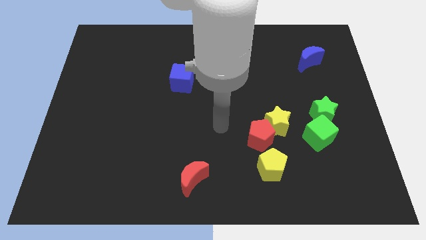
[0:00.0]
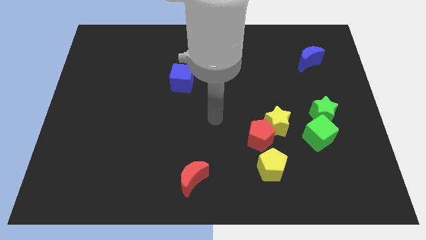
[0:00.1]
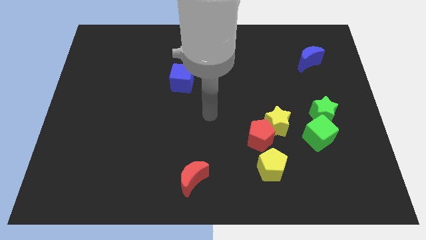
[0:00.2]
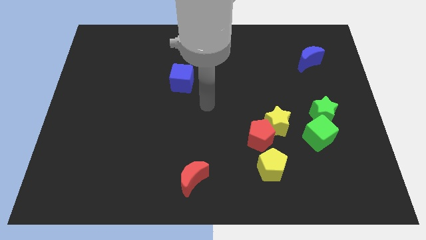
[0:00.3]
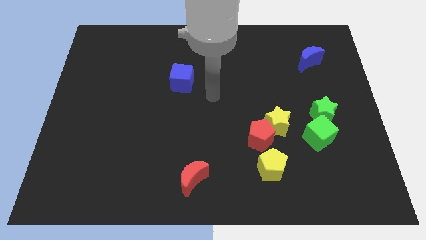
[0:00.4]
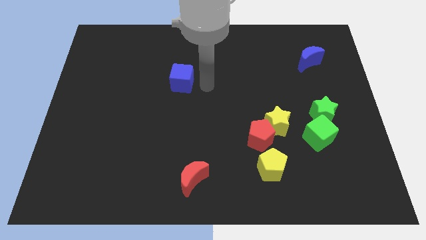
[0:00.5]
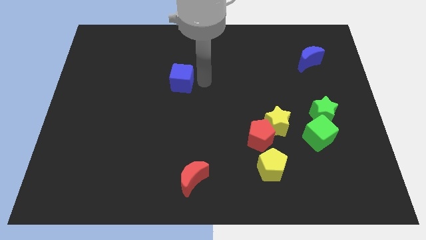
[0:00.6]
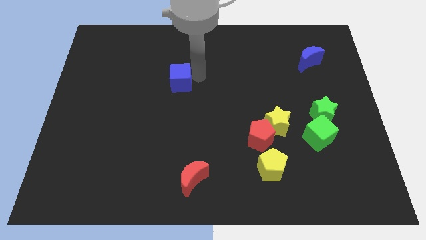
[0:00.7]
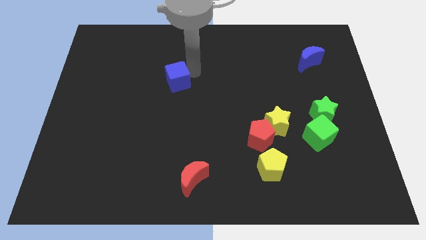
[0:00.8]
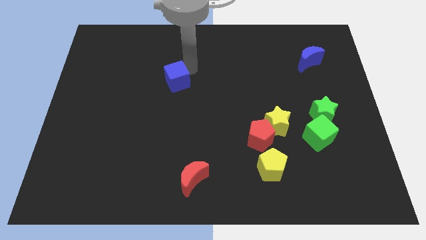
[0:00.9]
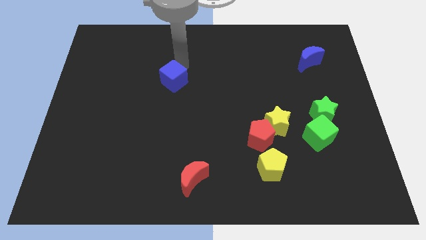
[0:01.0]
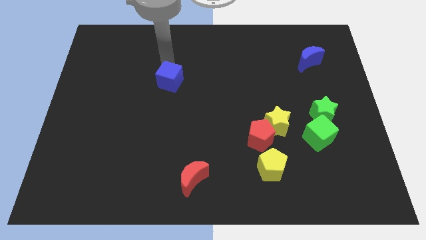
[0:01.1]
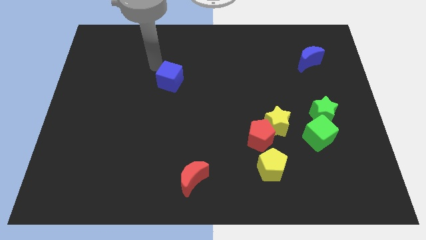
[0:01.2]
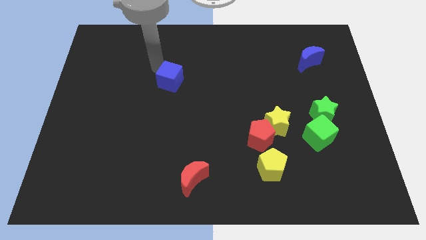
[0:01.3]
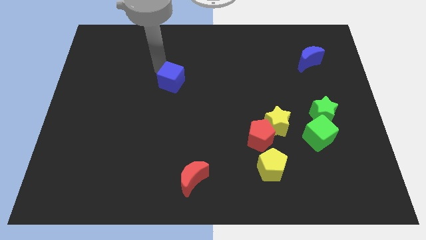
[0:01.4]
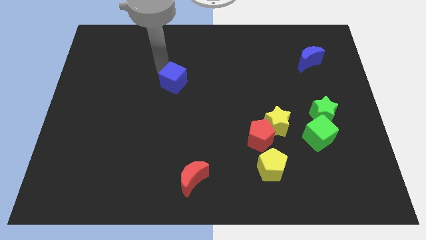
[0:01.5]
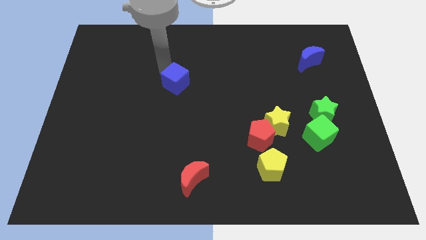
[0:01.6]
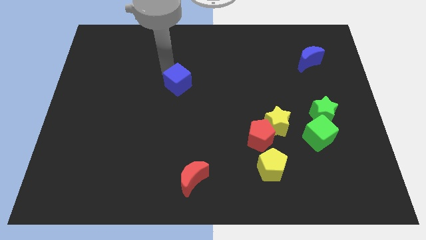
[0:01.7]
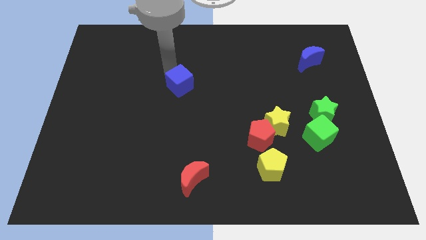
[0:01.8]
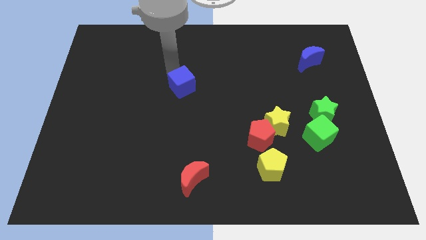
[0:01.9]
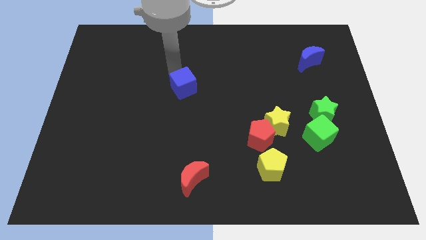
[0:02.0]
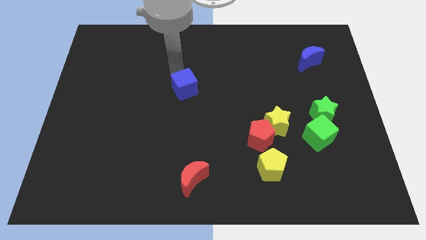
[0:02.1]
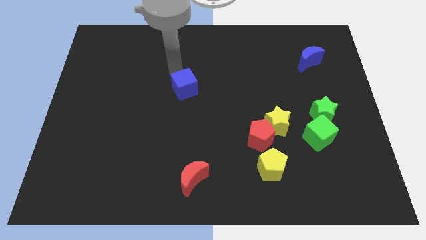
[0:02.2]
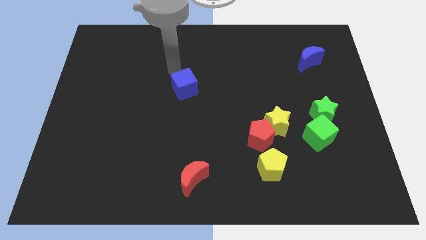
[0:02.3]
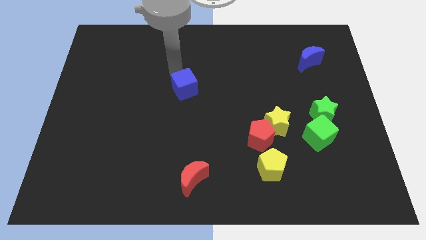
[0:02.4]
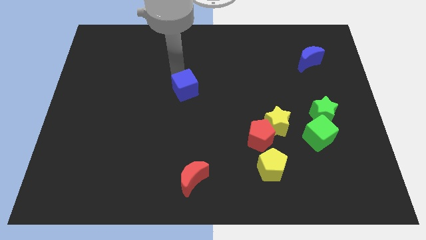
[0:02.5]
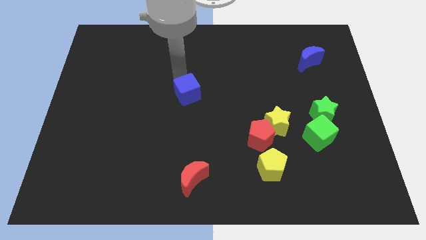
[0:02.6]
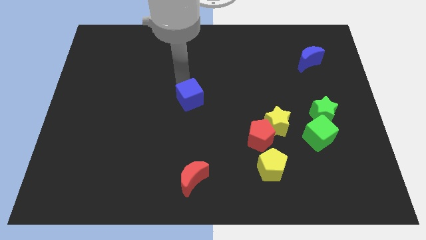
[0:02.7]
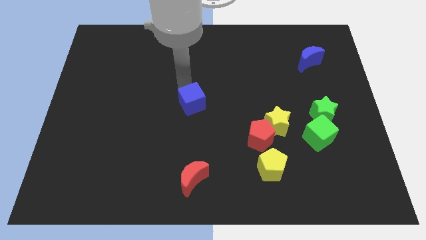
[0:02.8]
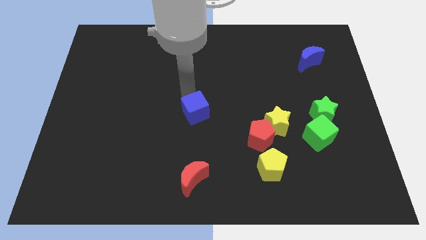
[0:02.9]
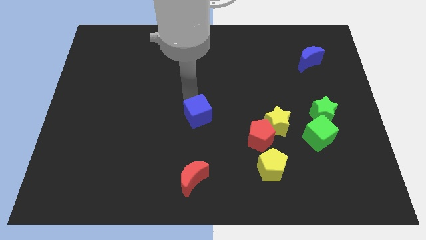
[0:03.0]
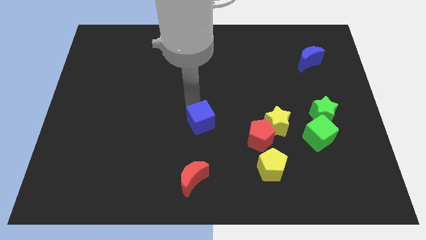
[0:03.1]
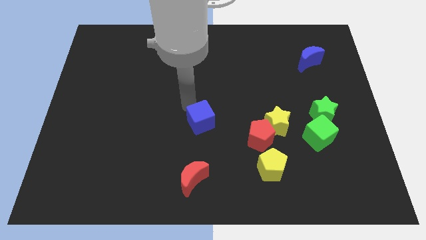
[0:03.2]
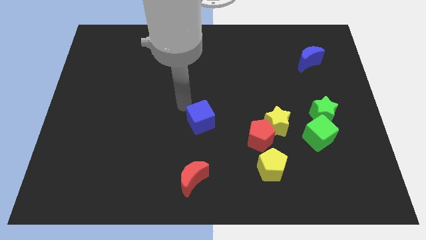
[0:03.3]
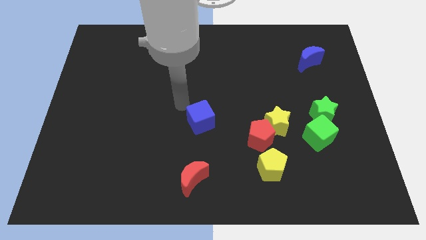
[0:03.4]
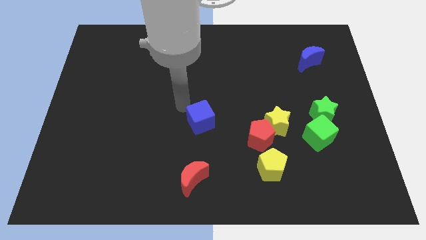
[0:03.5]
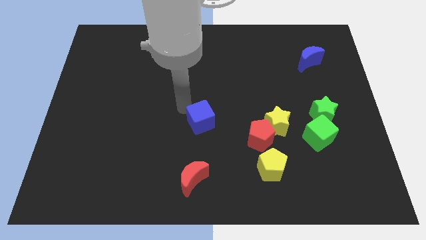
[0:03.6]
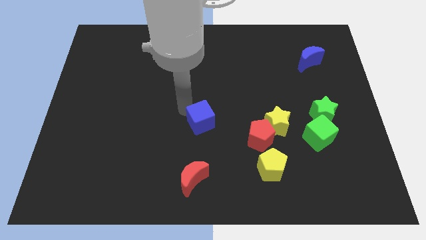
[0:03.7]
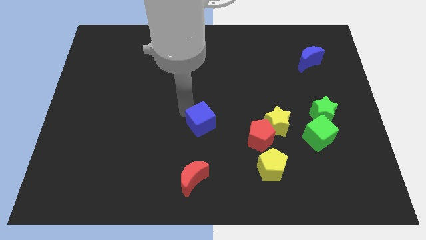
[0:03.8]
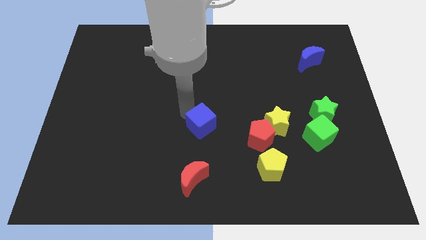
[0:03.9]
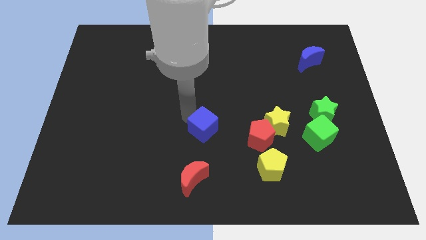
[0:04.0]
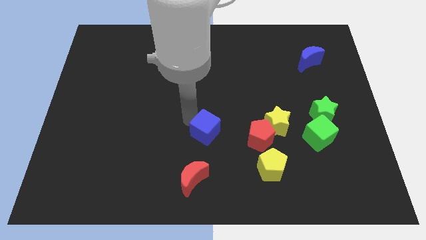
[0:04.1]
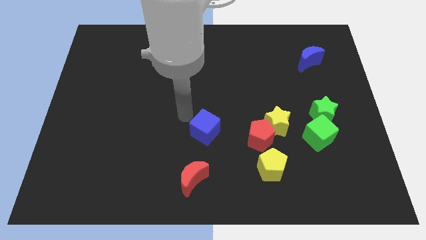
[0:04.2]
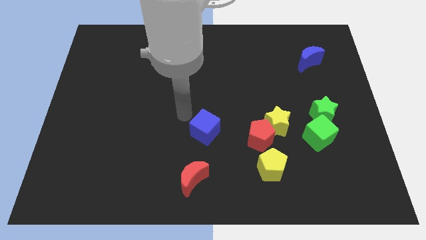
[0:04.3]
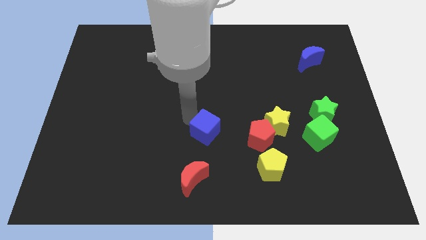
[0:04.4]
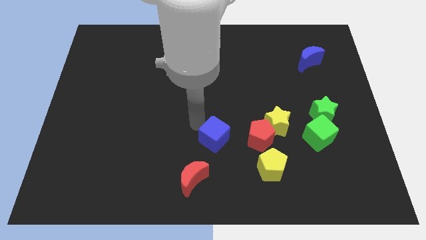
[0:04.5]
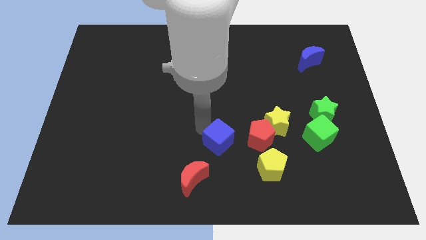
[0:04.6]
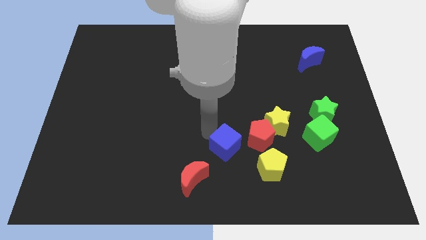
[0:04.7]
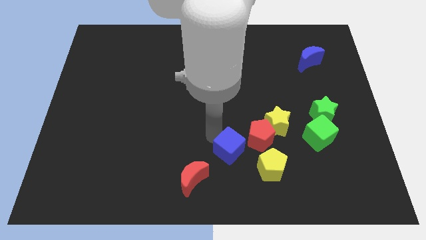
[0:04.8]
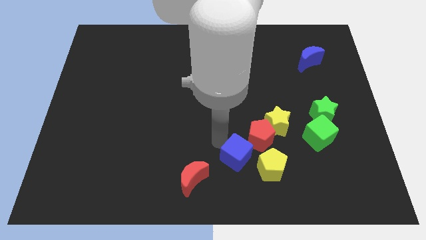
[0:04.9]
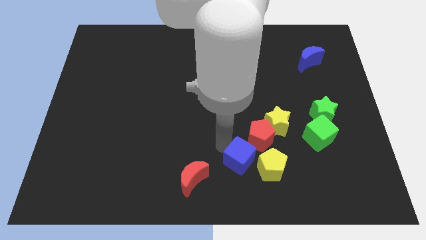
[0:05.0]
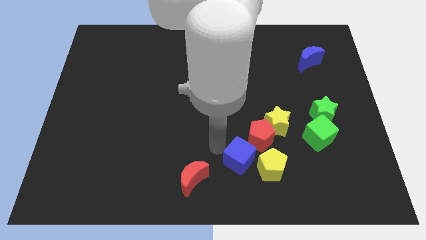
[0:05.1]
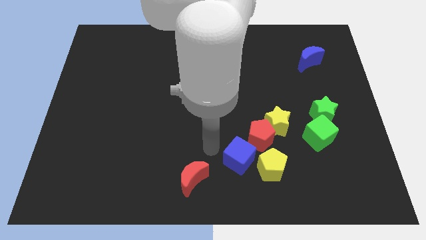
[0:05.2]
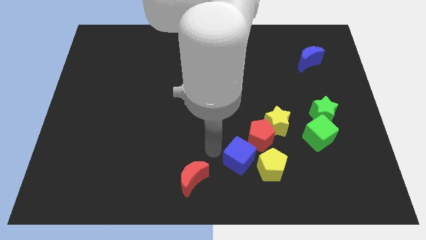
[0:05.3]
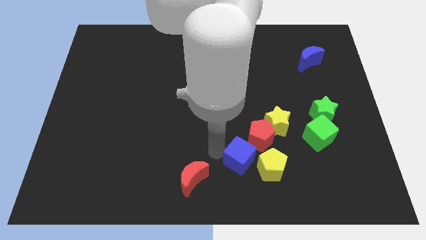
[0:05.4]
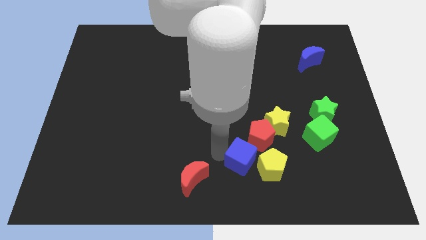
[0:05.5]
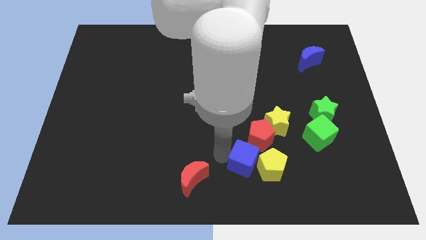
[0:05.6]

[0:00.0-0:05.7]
push the blue cube next to the yellow pentagon

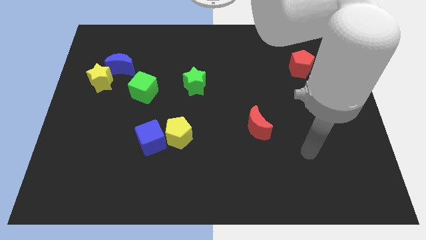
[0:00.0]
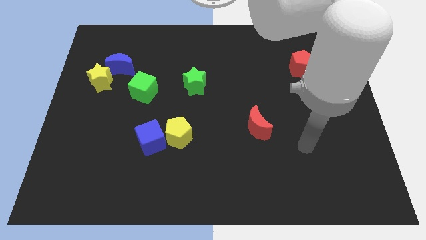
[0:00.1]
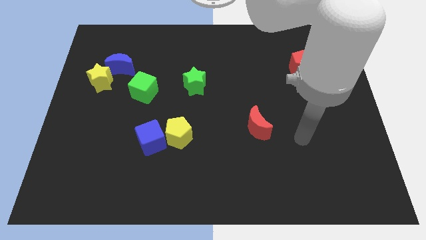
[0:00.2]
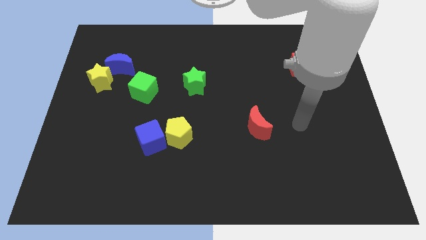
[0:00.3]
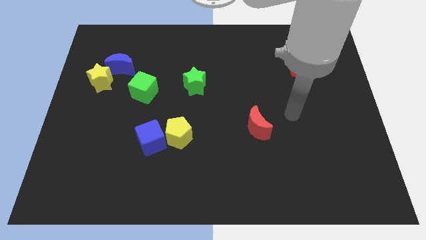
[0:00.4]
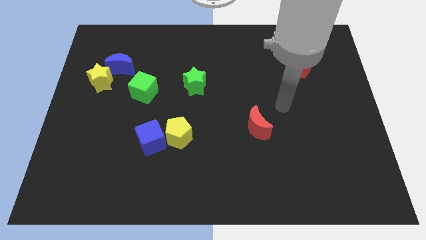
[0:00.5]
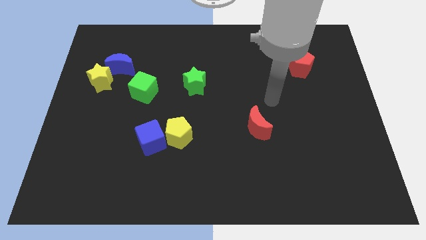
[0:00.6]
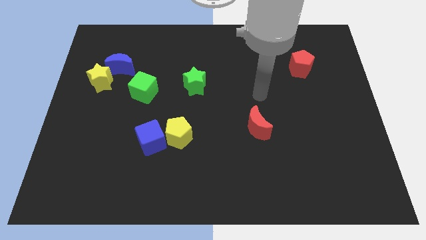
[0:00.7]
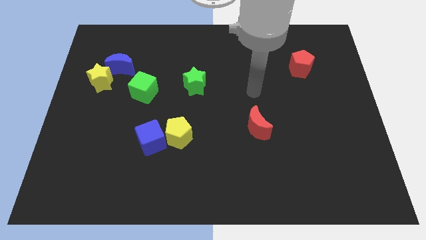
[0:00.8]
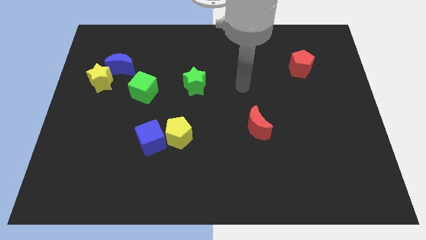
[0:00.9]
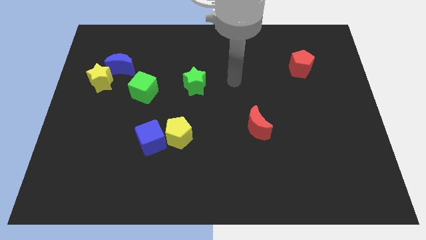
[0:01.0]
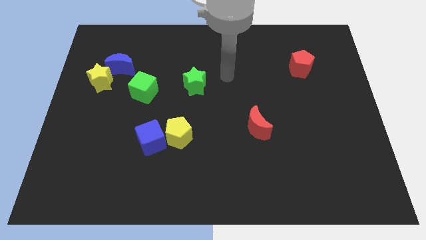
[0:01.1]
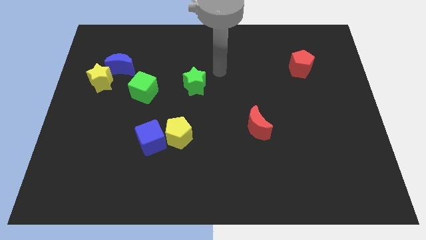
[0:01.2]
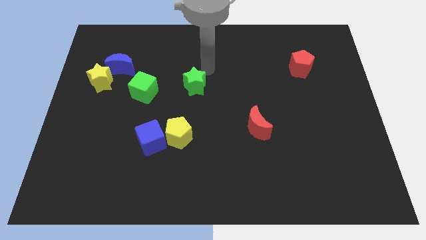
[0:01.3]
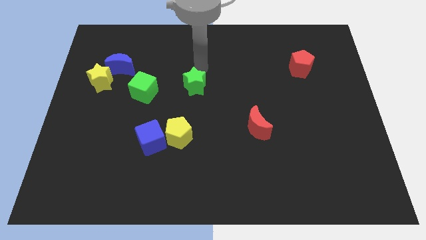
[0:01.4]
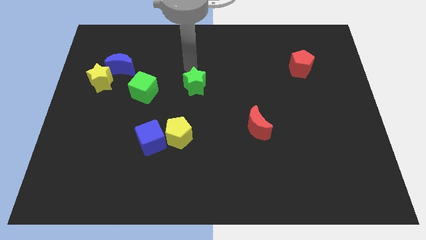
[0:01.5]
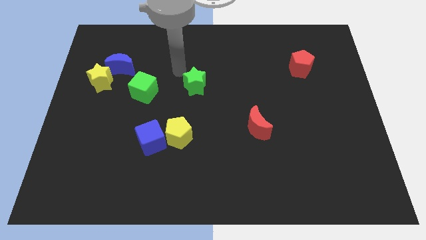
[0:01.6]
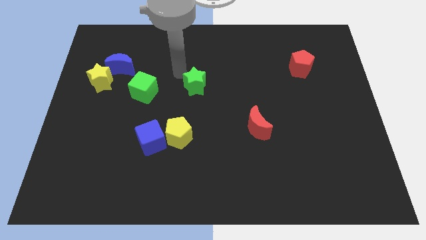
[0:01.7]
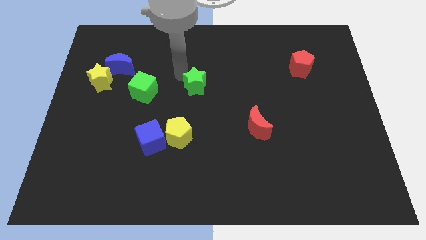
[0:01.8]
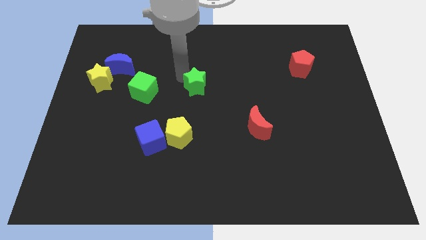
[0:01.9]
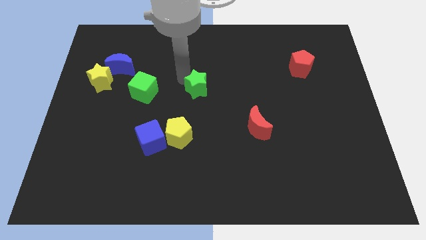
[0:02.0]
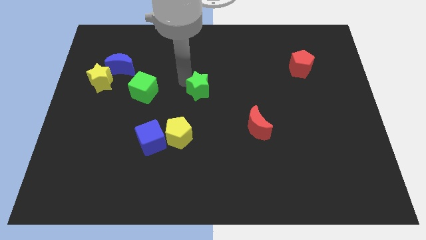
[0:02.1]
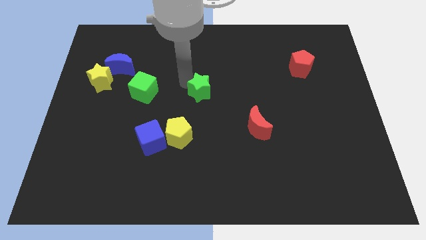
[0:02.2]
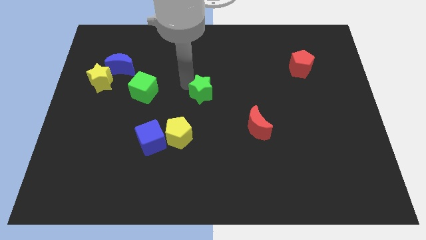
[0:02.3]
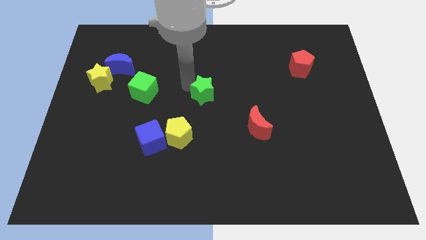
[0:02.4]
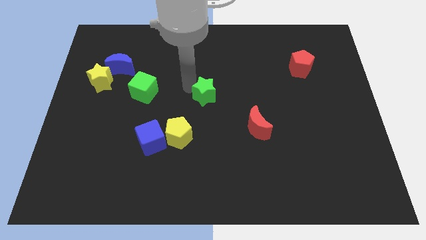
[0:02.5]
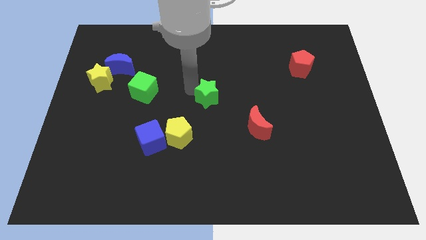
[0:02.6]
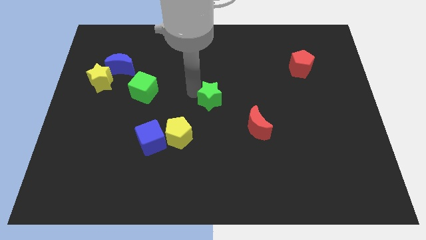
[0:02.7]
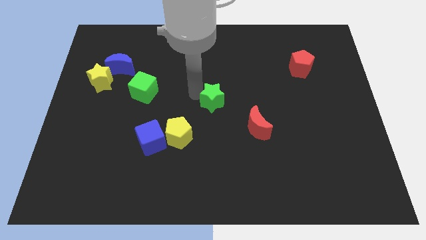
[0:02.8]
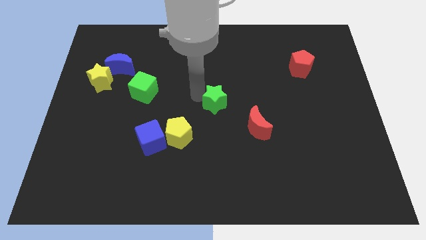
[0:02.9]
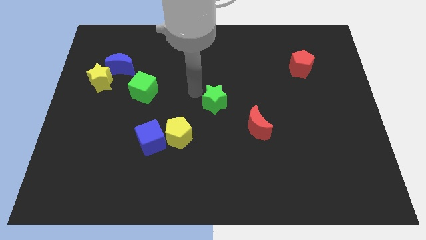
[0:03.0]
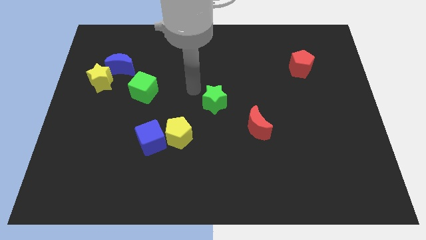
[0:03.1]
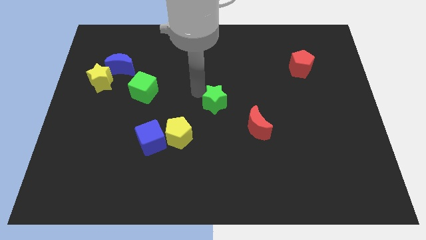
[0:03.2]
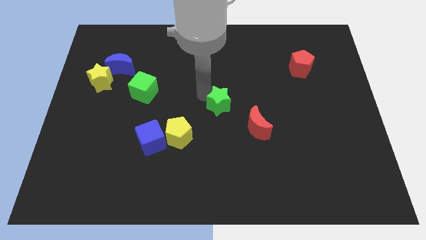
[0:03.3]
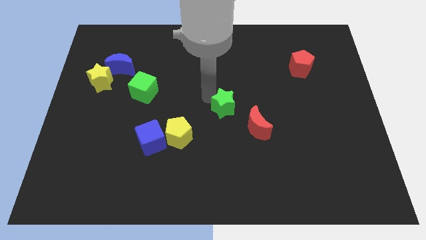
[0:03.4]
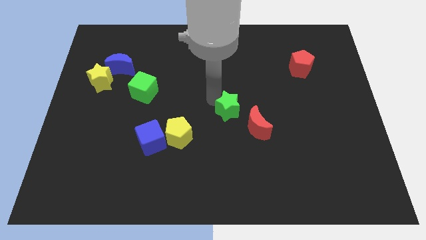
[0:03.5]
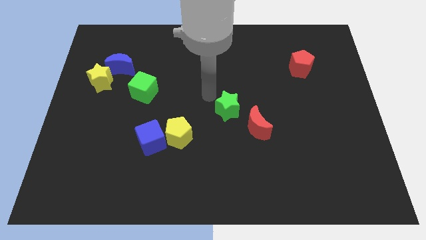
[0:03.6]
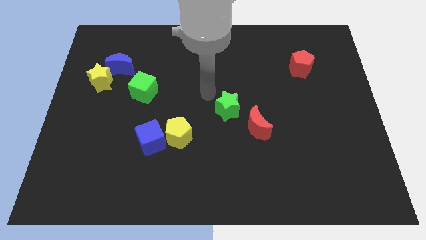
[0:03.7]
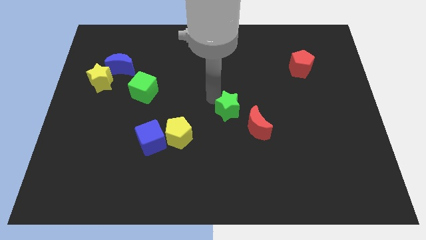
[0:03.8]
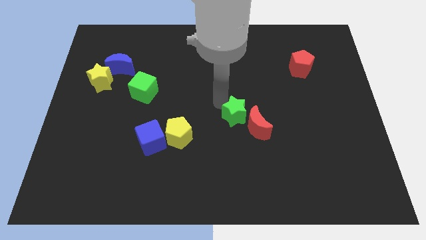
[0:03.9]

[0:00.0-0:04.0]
push the green star next to the red moon
